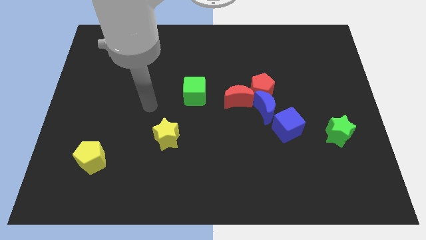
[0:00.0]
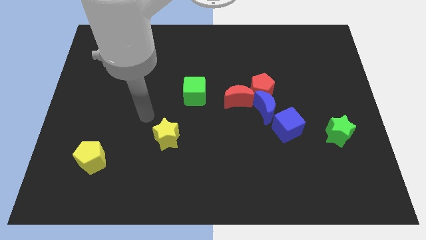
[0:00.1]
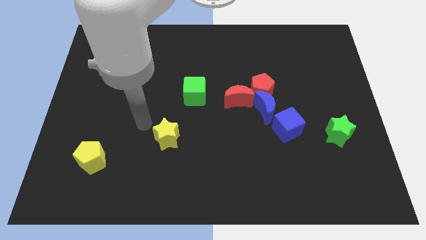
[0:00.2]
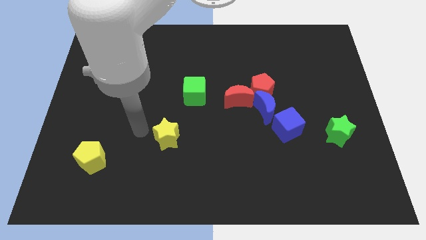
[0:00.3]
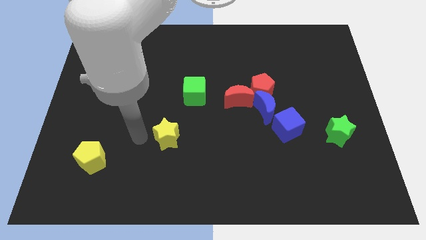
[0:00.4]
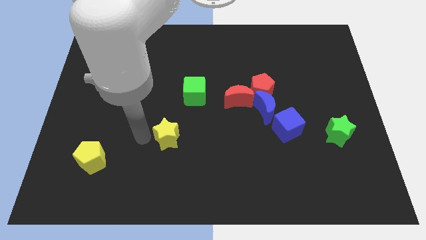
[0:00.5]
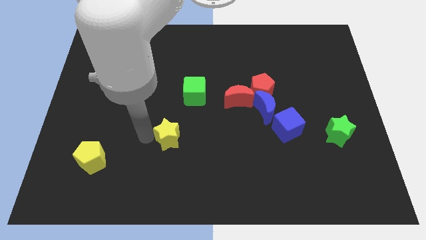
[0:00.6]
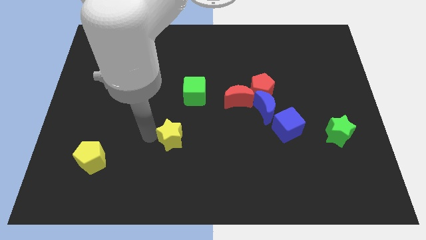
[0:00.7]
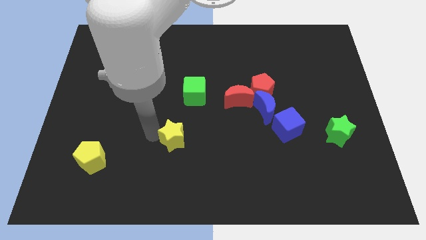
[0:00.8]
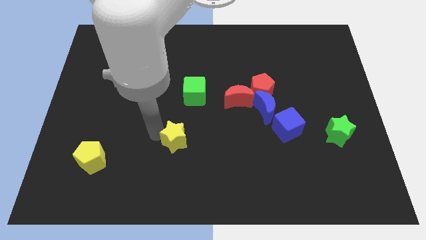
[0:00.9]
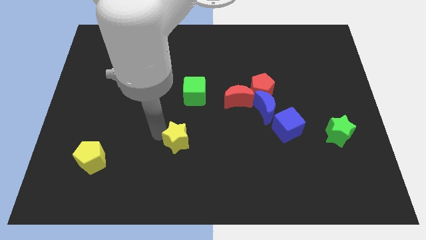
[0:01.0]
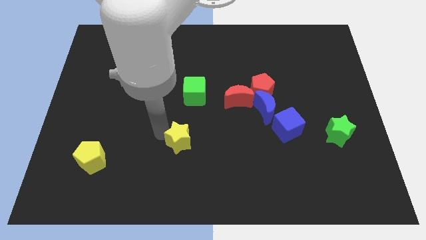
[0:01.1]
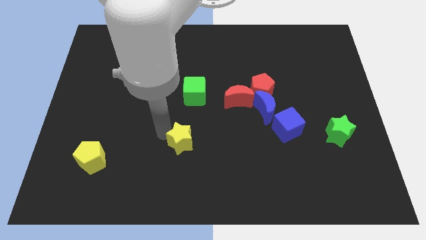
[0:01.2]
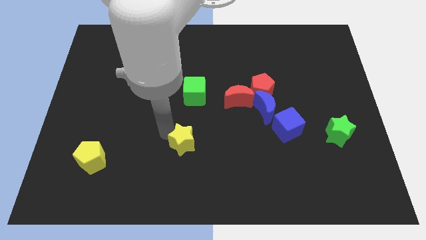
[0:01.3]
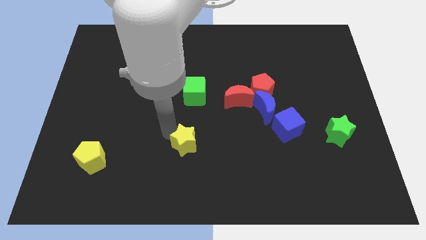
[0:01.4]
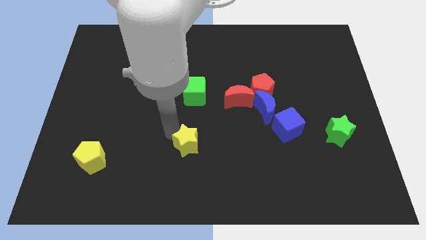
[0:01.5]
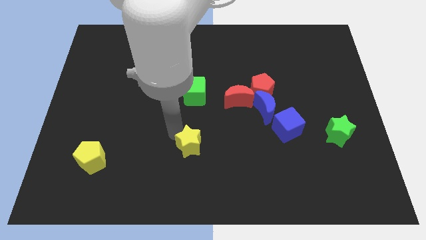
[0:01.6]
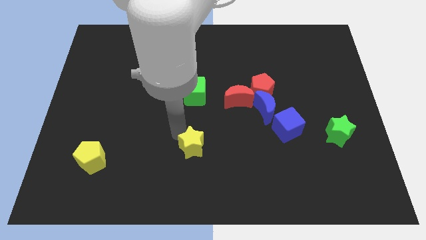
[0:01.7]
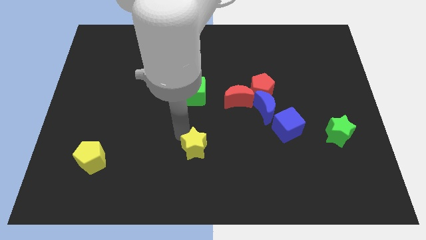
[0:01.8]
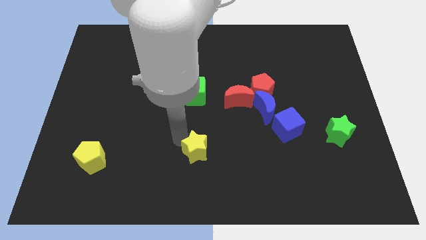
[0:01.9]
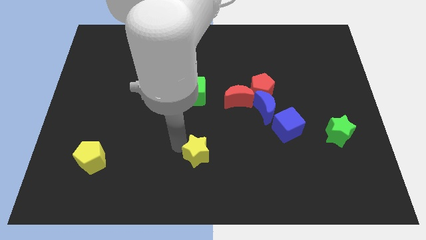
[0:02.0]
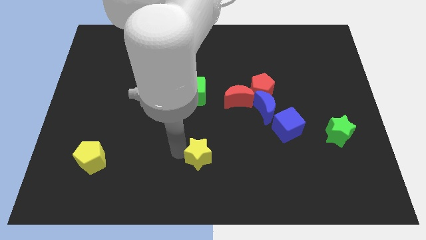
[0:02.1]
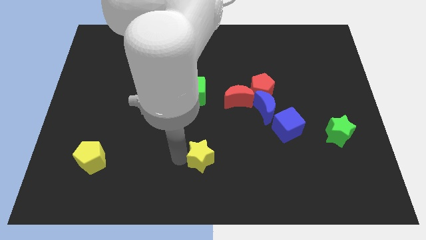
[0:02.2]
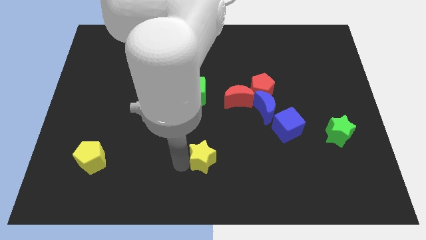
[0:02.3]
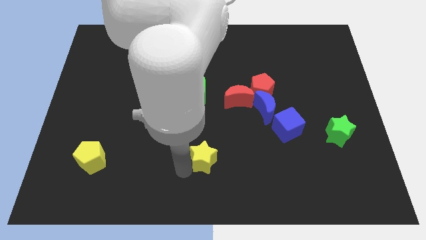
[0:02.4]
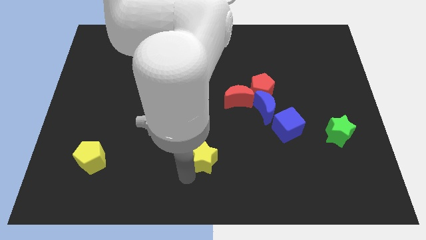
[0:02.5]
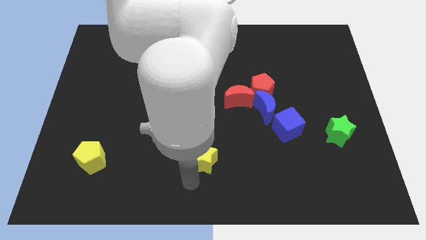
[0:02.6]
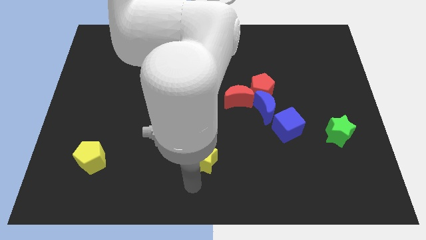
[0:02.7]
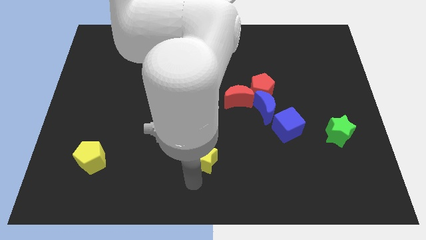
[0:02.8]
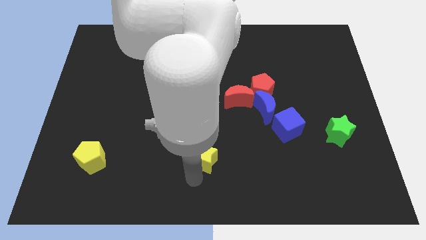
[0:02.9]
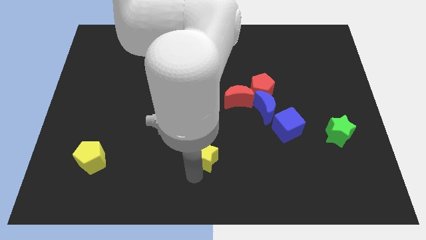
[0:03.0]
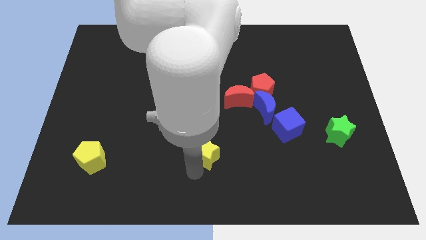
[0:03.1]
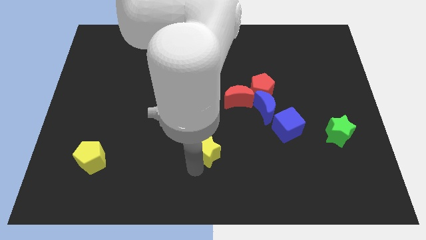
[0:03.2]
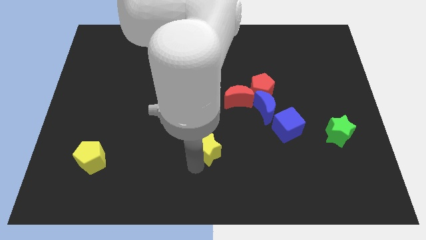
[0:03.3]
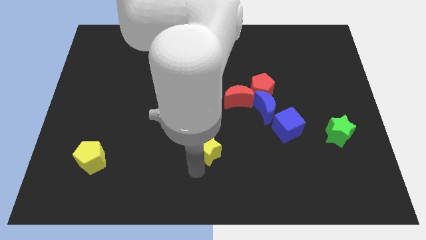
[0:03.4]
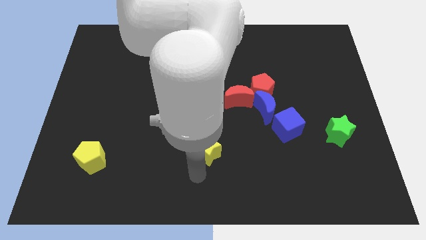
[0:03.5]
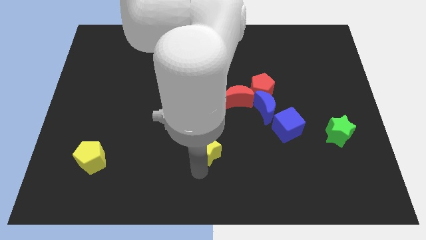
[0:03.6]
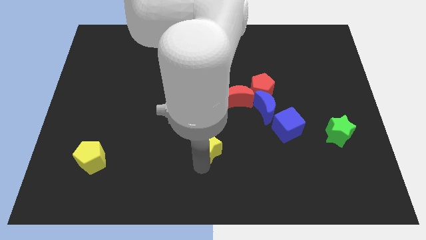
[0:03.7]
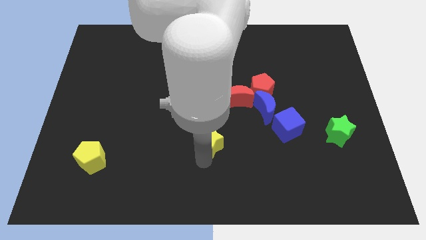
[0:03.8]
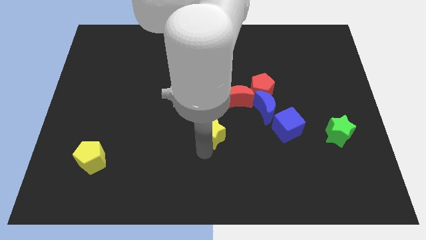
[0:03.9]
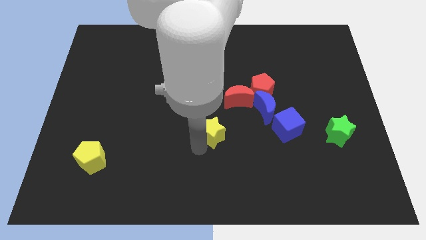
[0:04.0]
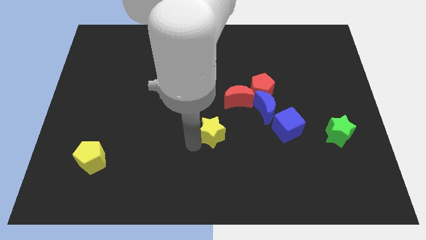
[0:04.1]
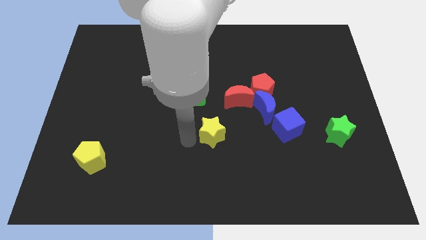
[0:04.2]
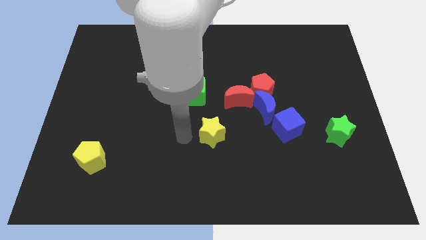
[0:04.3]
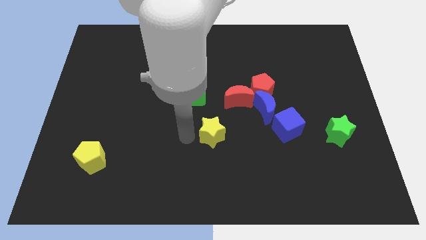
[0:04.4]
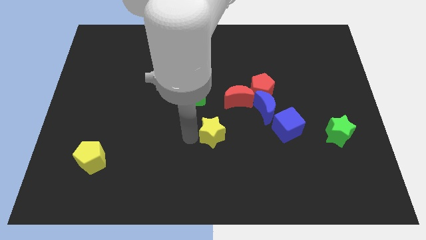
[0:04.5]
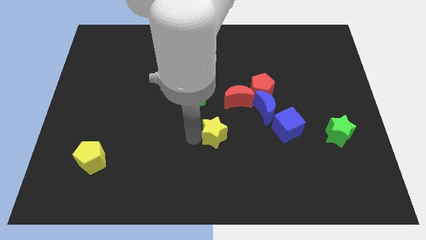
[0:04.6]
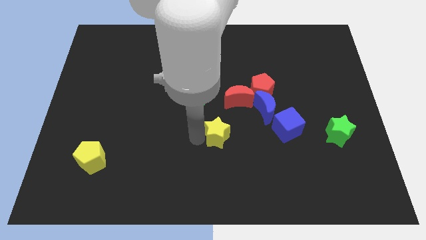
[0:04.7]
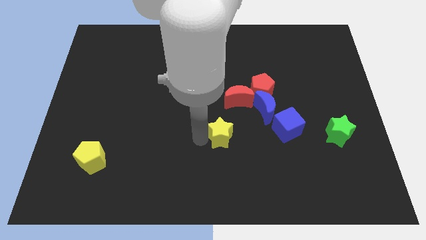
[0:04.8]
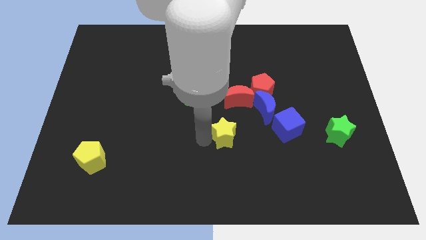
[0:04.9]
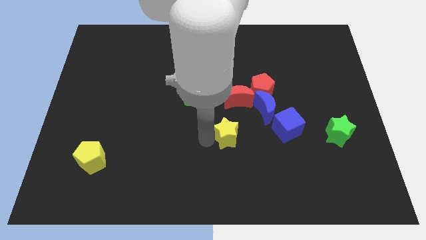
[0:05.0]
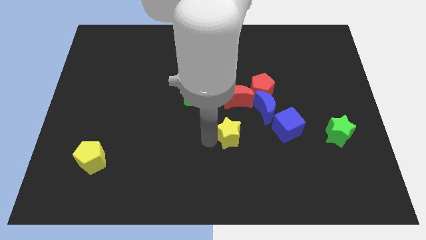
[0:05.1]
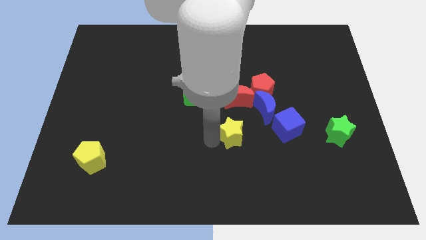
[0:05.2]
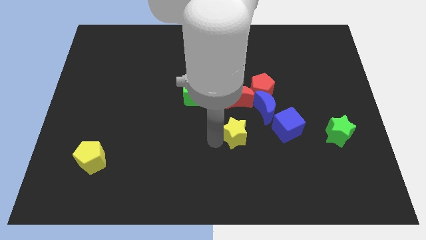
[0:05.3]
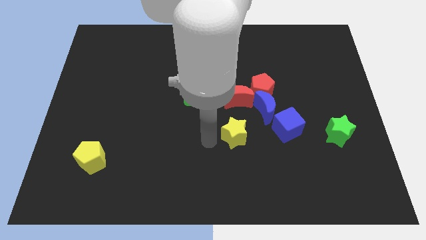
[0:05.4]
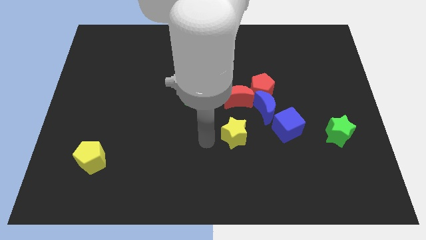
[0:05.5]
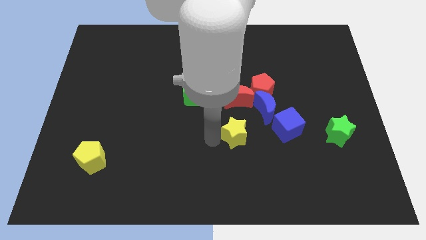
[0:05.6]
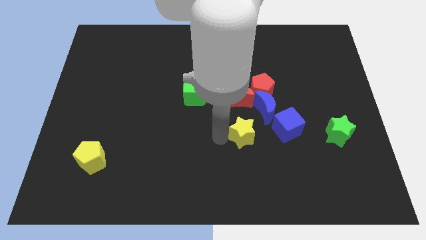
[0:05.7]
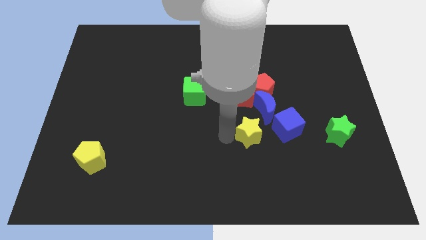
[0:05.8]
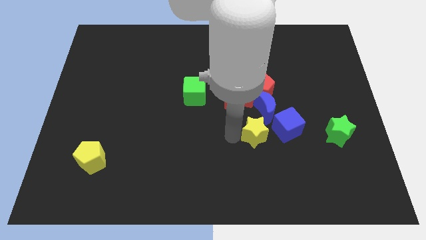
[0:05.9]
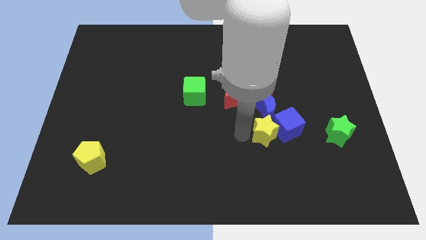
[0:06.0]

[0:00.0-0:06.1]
move the yellow star towards the blue cube
